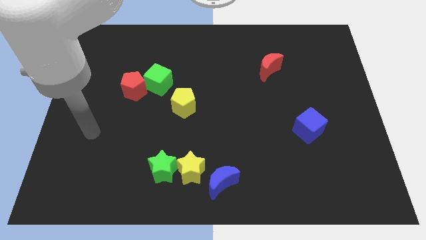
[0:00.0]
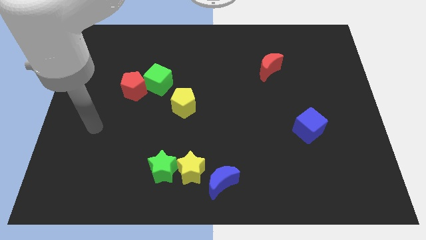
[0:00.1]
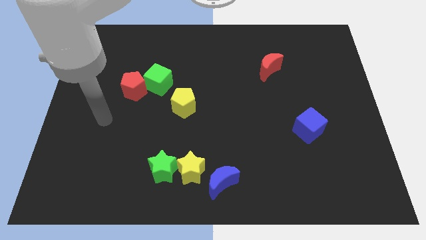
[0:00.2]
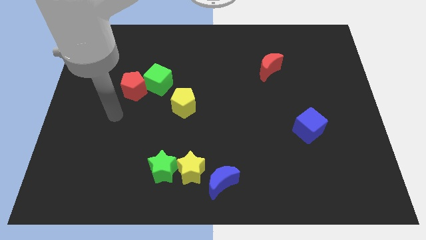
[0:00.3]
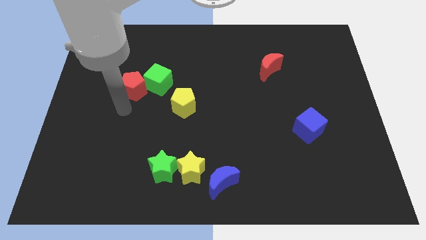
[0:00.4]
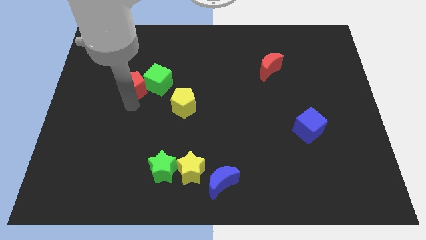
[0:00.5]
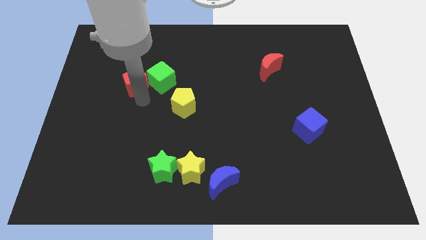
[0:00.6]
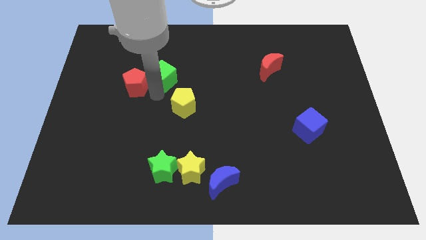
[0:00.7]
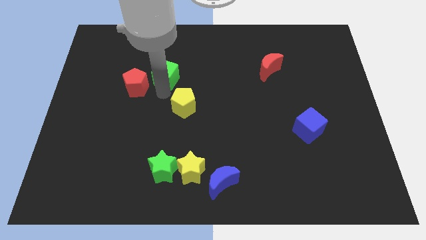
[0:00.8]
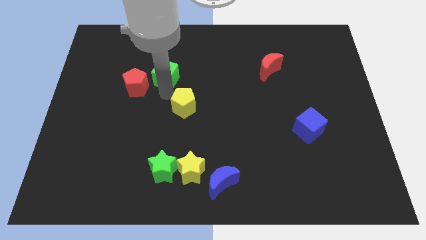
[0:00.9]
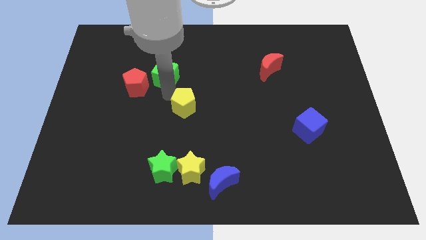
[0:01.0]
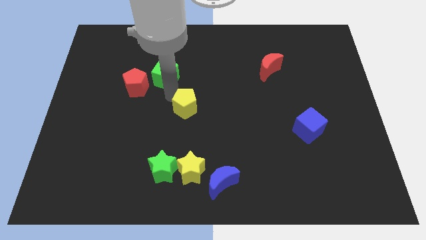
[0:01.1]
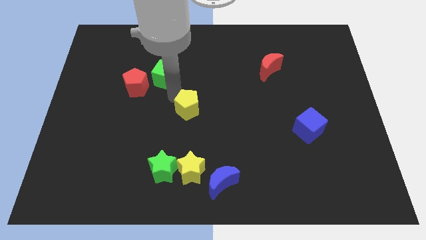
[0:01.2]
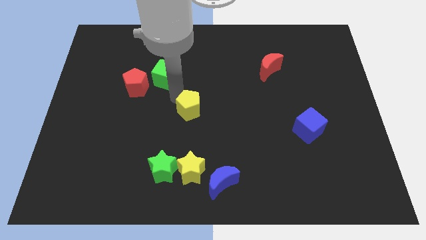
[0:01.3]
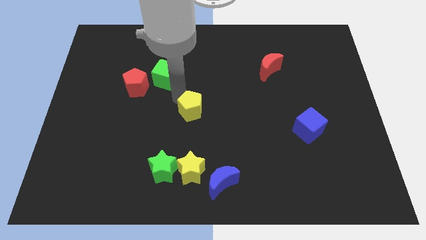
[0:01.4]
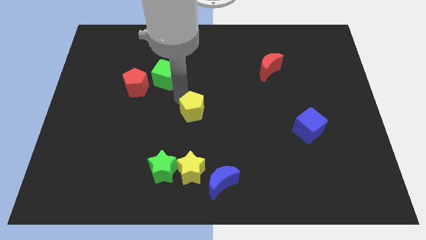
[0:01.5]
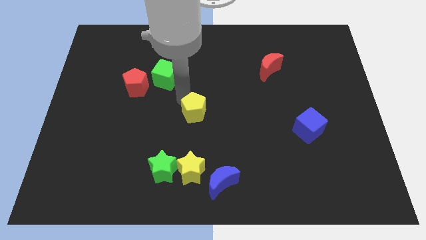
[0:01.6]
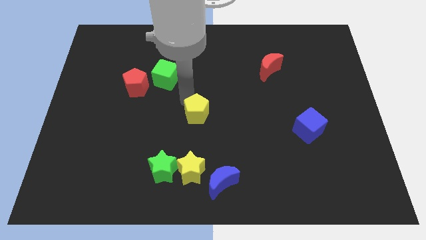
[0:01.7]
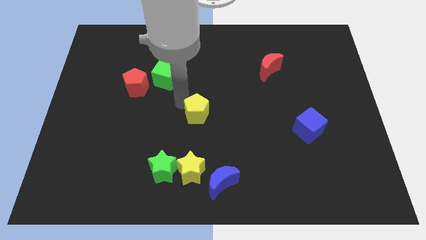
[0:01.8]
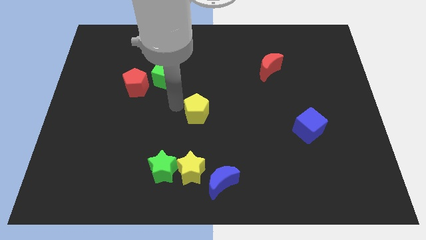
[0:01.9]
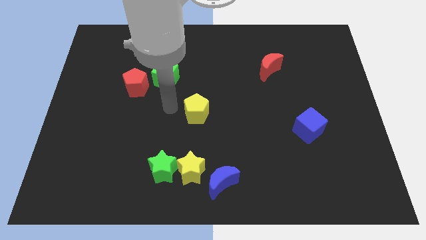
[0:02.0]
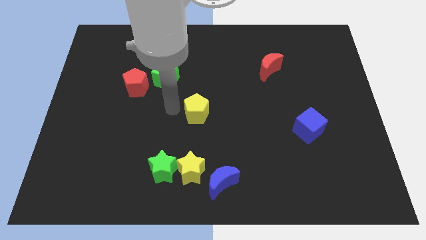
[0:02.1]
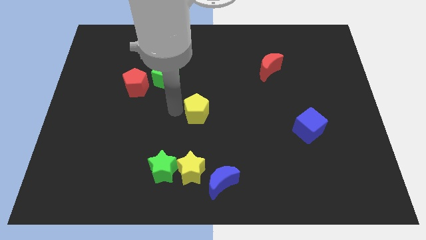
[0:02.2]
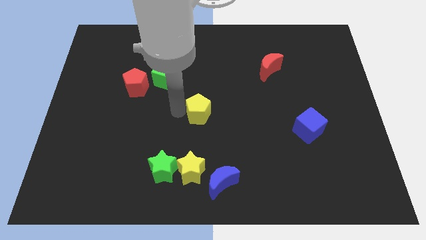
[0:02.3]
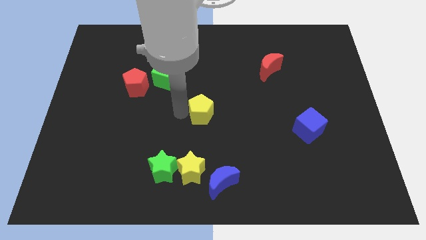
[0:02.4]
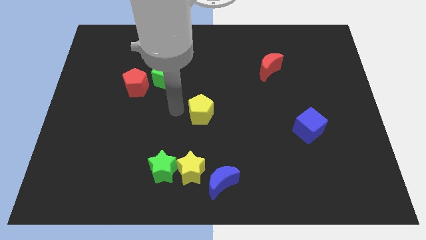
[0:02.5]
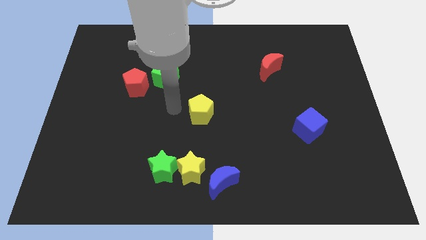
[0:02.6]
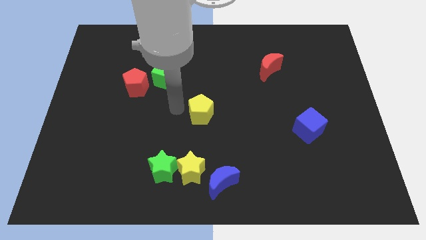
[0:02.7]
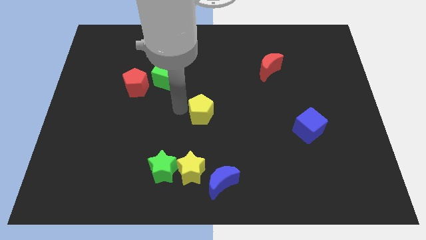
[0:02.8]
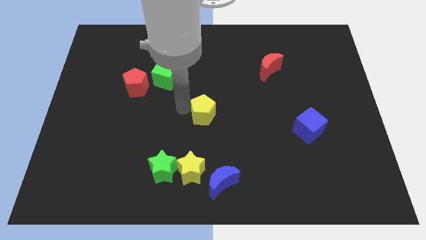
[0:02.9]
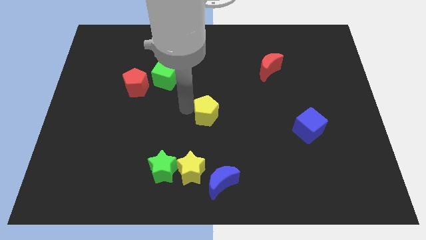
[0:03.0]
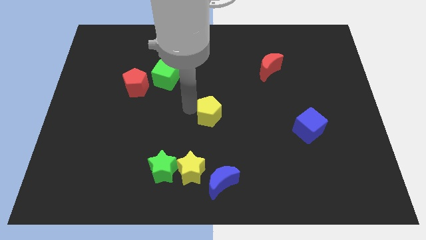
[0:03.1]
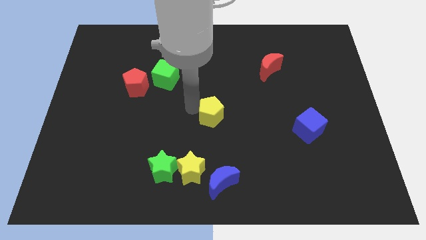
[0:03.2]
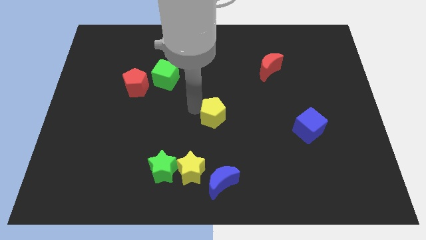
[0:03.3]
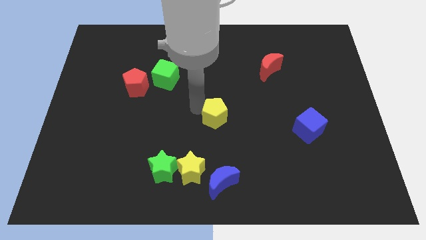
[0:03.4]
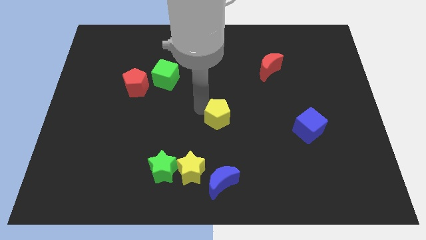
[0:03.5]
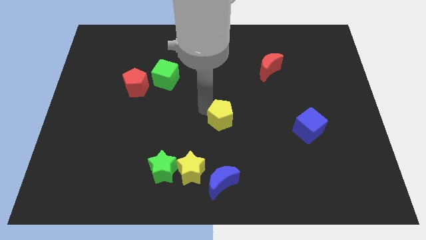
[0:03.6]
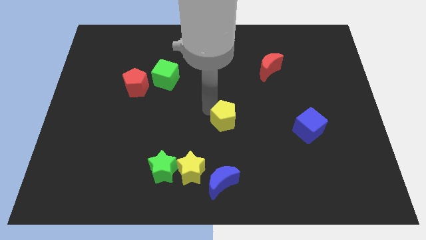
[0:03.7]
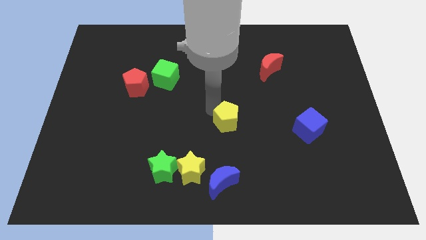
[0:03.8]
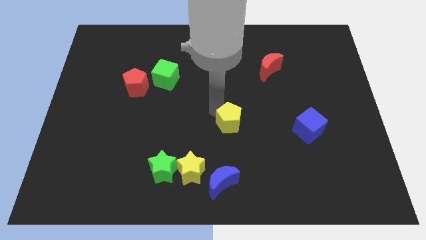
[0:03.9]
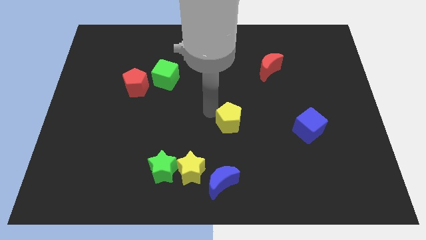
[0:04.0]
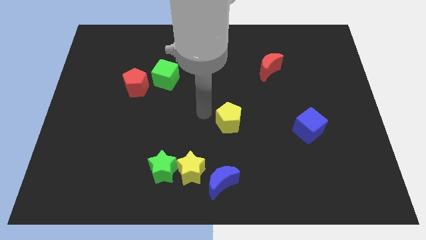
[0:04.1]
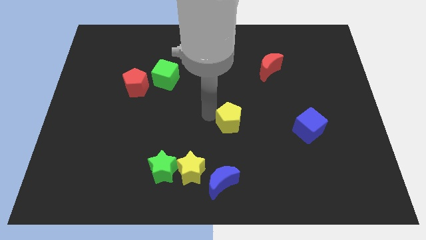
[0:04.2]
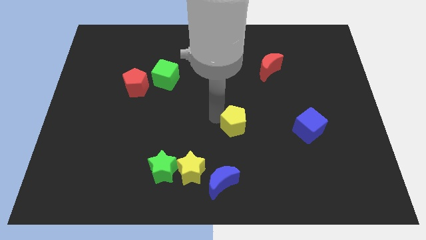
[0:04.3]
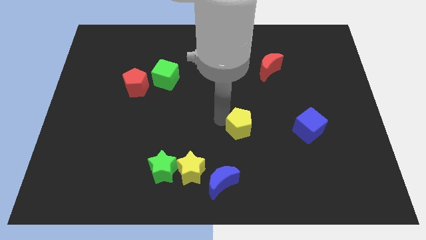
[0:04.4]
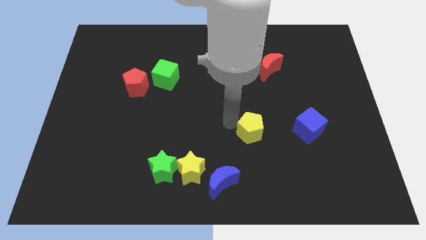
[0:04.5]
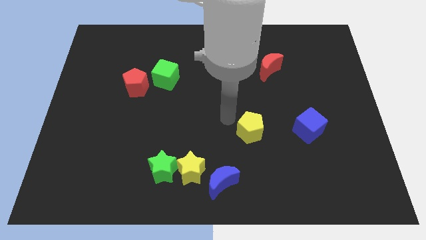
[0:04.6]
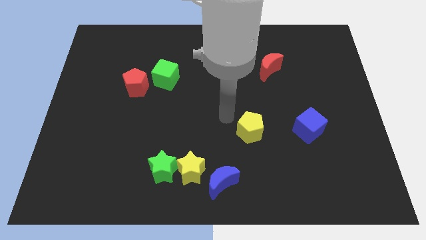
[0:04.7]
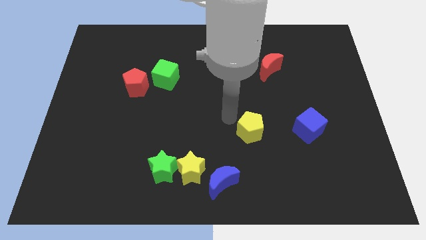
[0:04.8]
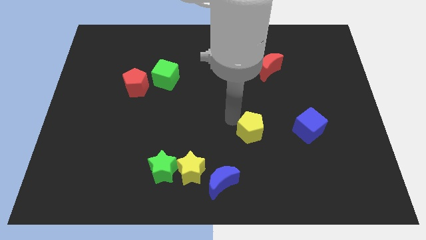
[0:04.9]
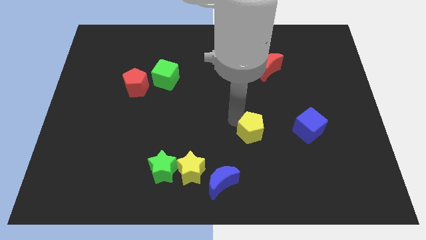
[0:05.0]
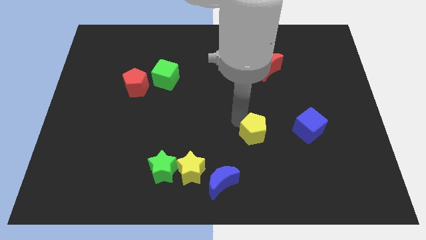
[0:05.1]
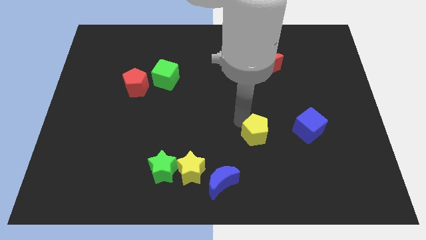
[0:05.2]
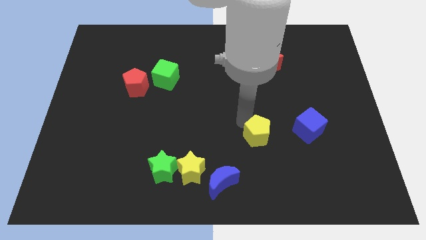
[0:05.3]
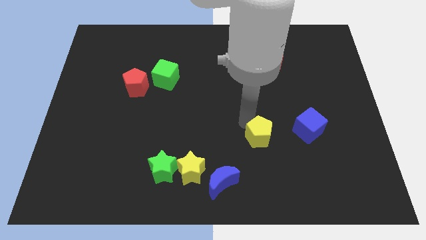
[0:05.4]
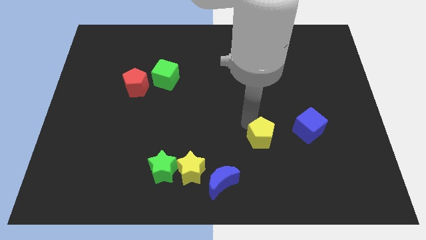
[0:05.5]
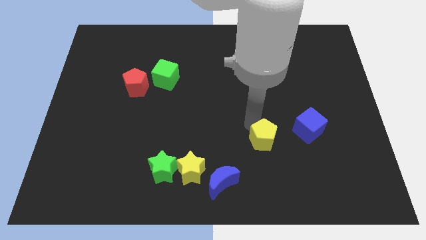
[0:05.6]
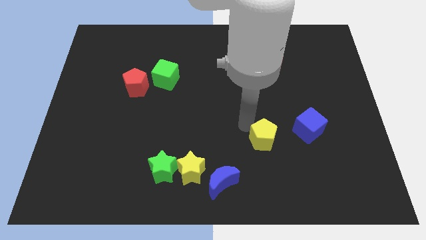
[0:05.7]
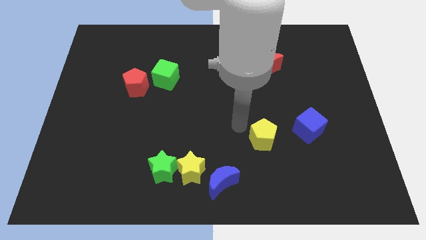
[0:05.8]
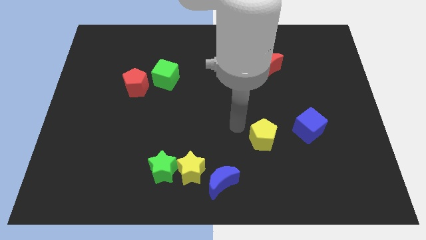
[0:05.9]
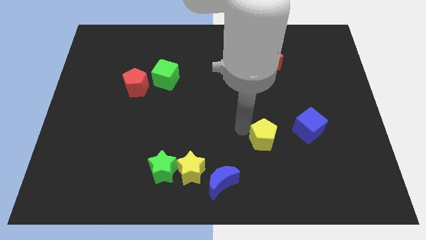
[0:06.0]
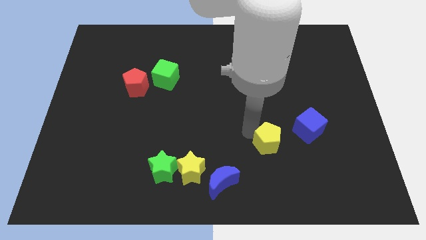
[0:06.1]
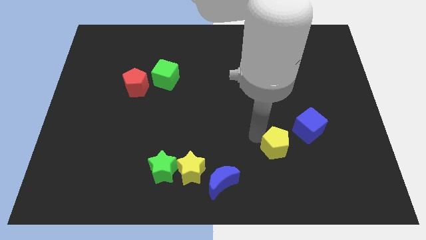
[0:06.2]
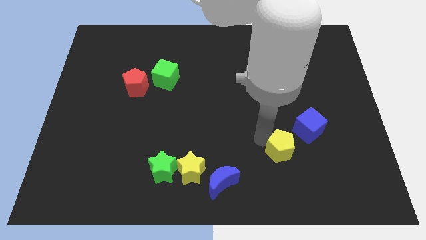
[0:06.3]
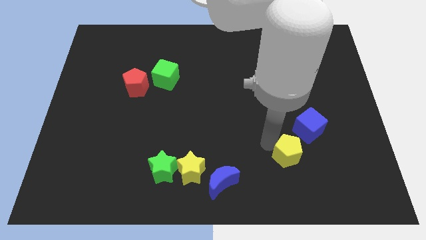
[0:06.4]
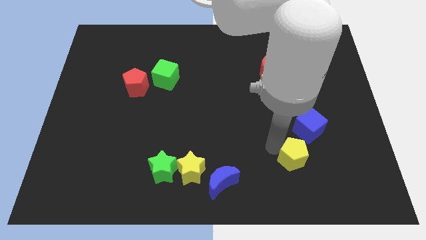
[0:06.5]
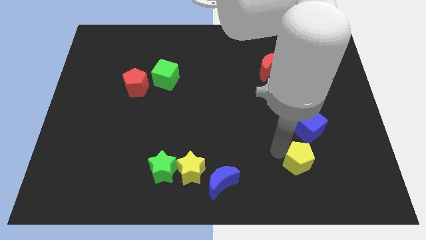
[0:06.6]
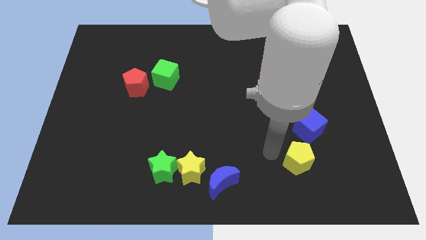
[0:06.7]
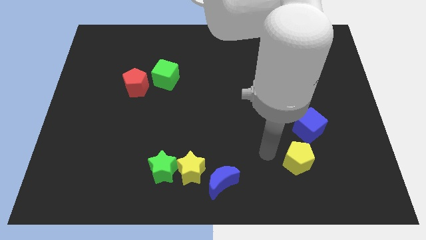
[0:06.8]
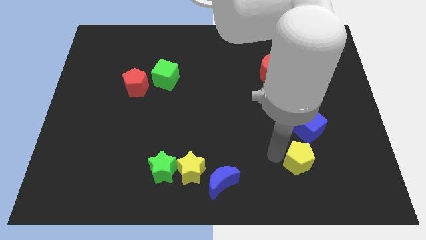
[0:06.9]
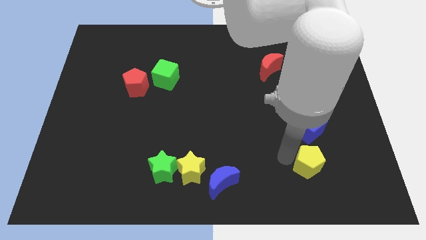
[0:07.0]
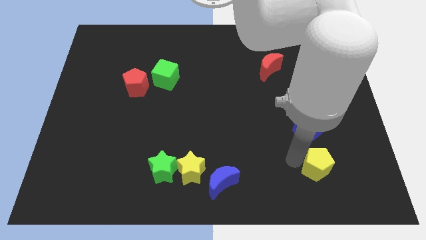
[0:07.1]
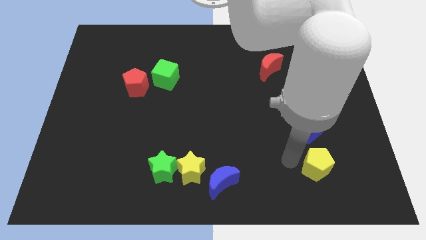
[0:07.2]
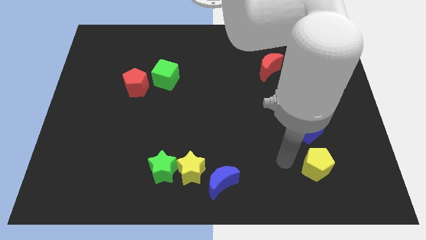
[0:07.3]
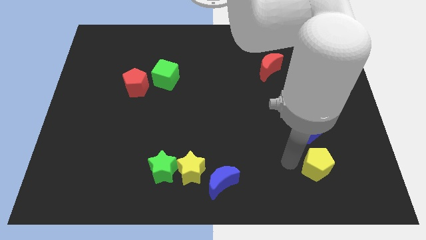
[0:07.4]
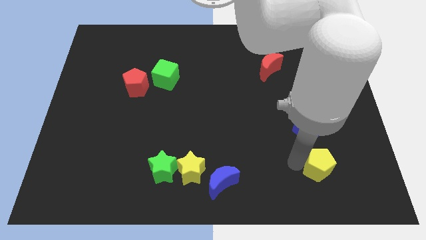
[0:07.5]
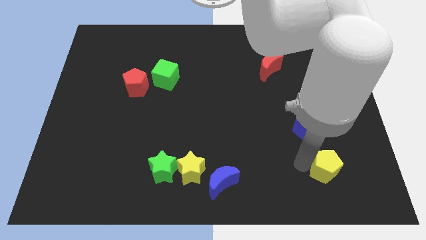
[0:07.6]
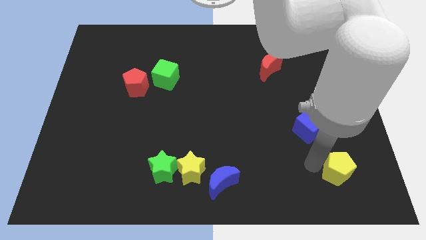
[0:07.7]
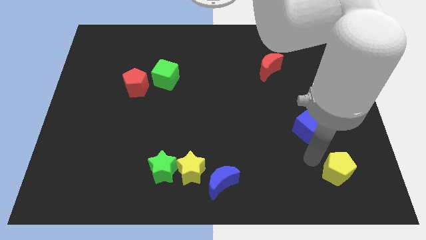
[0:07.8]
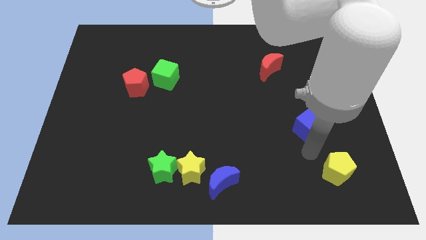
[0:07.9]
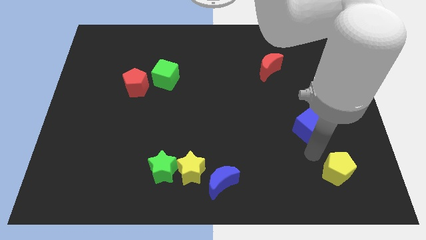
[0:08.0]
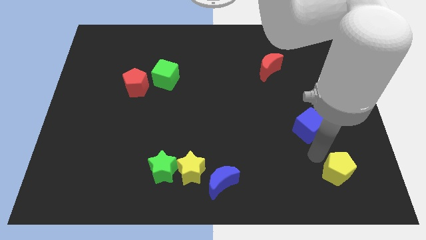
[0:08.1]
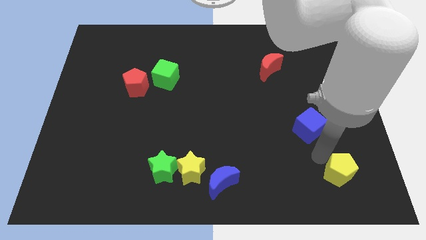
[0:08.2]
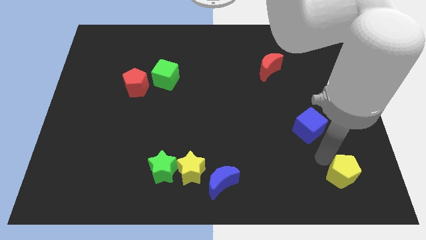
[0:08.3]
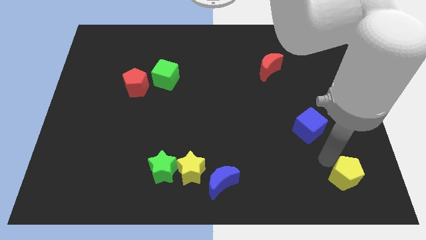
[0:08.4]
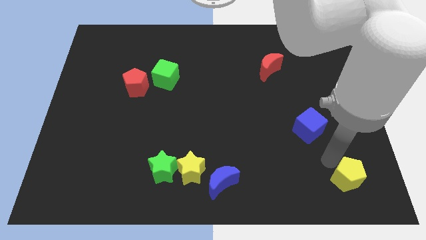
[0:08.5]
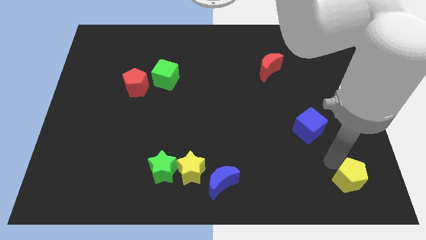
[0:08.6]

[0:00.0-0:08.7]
push the yellow pentagon to the bottom right of the board
